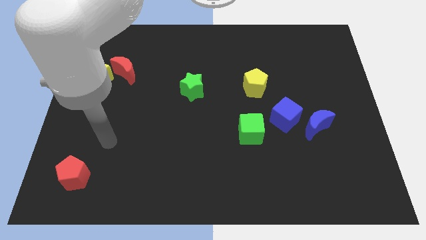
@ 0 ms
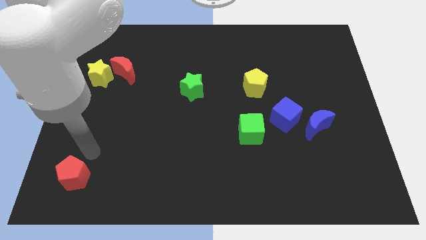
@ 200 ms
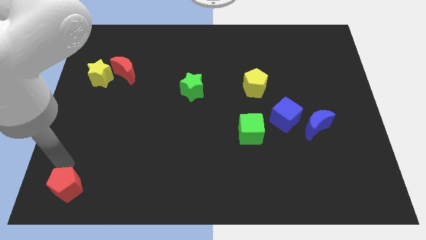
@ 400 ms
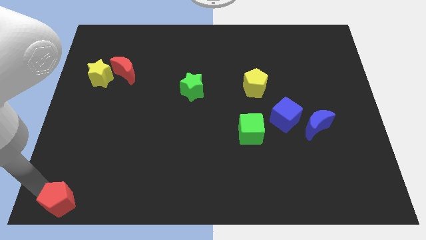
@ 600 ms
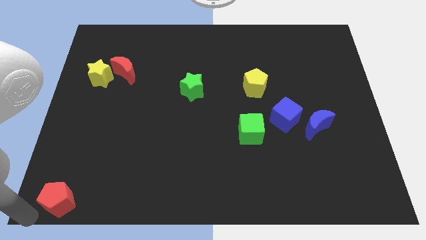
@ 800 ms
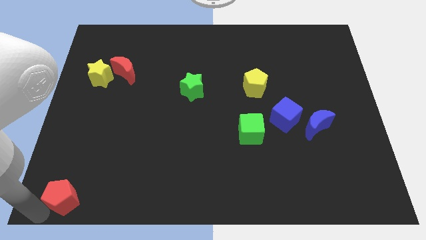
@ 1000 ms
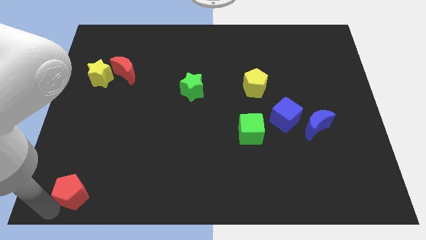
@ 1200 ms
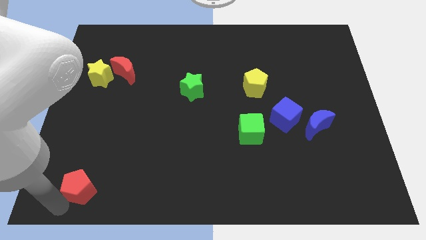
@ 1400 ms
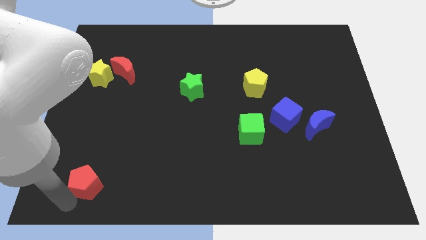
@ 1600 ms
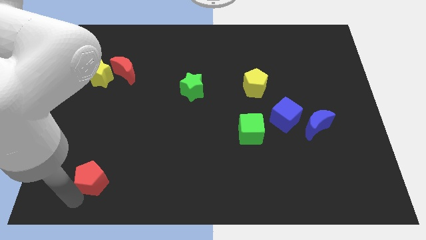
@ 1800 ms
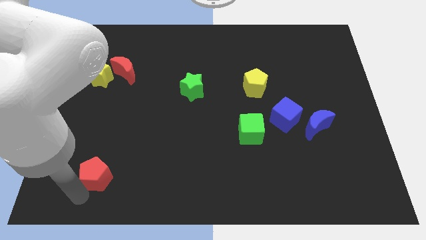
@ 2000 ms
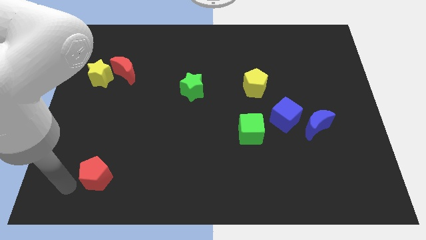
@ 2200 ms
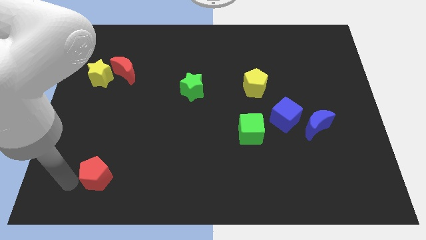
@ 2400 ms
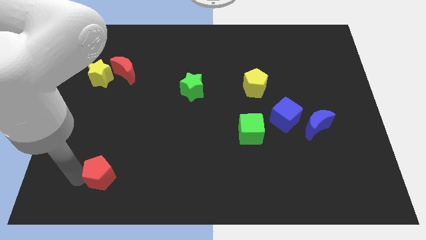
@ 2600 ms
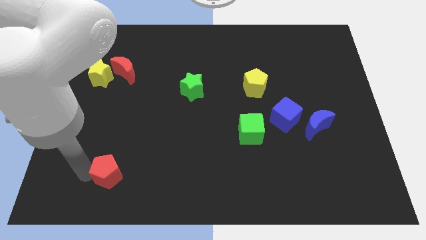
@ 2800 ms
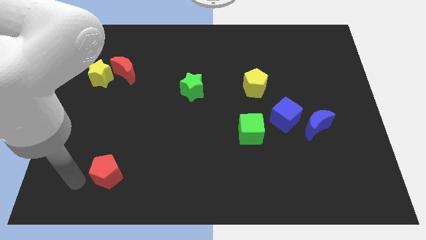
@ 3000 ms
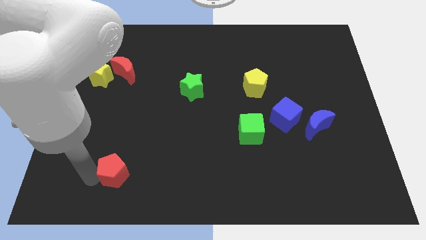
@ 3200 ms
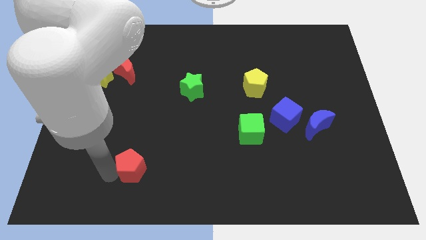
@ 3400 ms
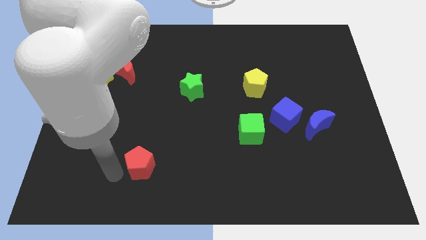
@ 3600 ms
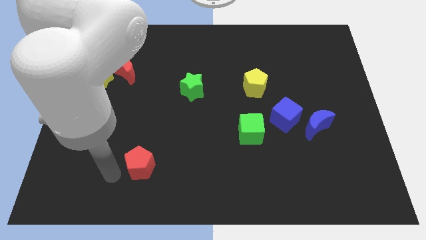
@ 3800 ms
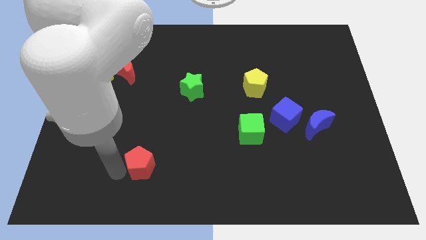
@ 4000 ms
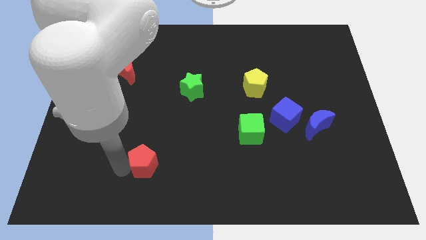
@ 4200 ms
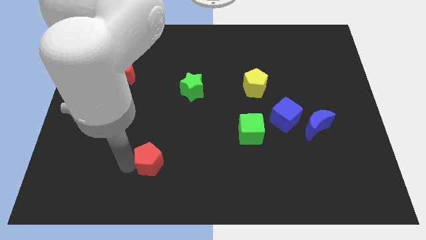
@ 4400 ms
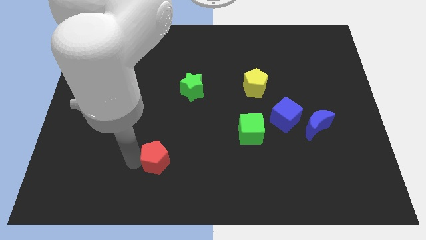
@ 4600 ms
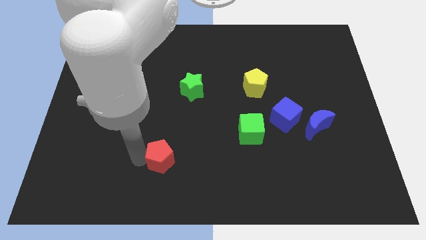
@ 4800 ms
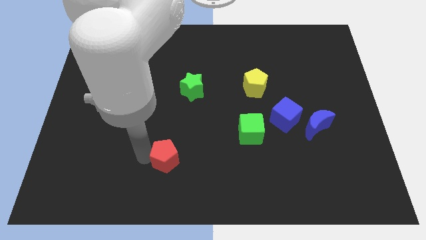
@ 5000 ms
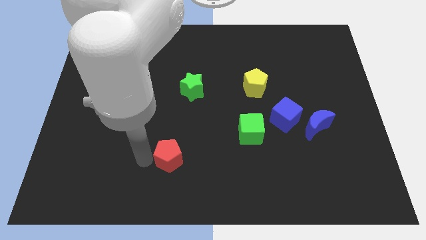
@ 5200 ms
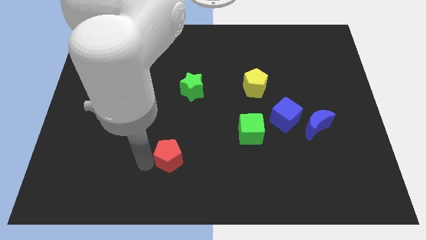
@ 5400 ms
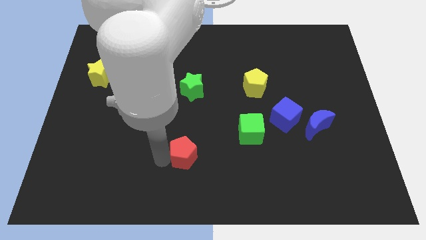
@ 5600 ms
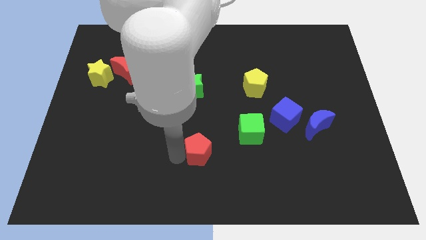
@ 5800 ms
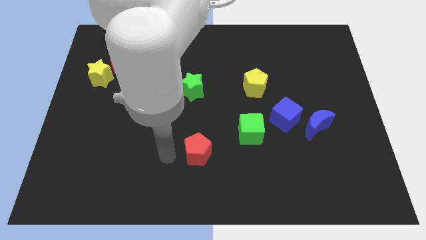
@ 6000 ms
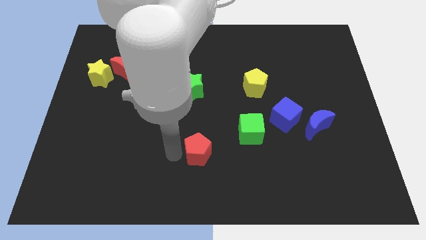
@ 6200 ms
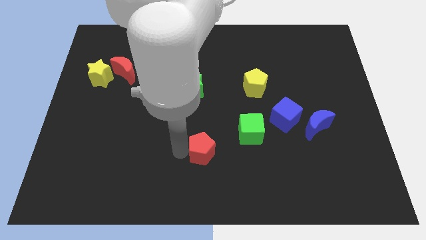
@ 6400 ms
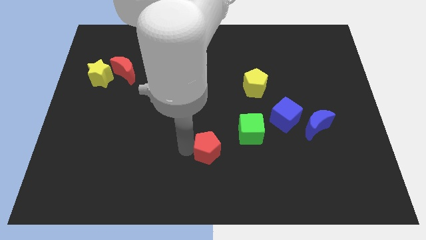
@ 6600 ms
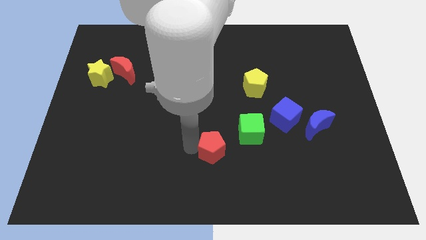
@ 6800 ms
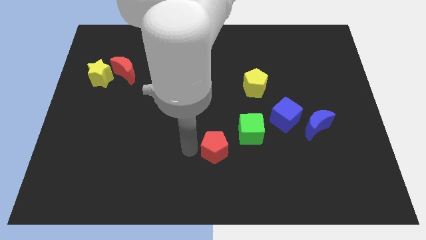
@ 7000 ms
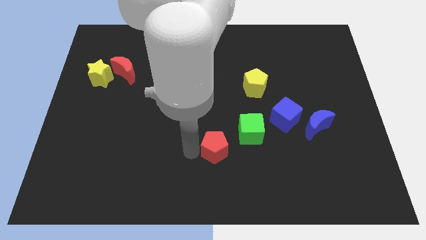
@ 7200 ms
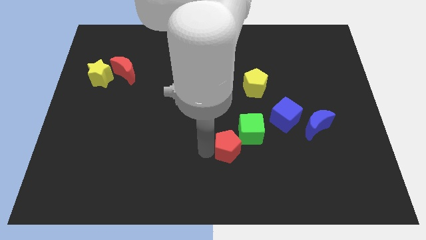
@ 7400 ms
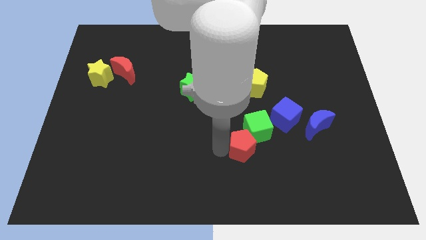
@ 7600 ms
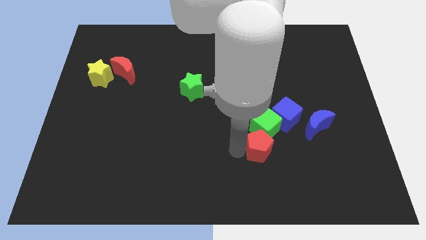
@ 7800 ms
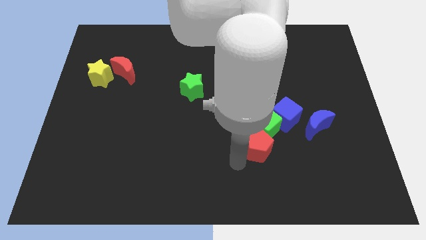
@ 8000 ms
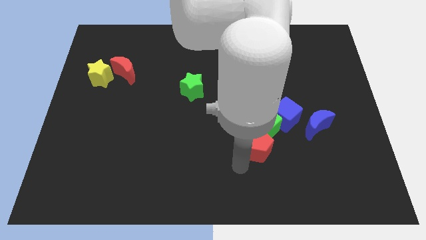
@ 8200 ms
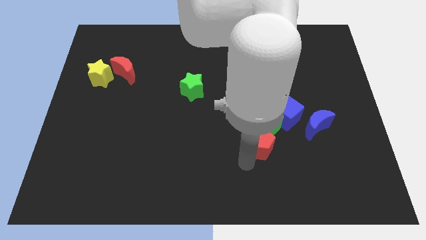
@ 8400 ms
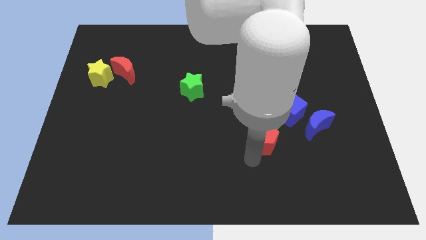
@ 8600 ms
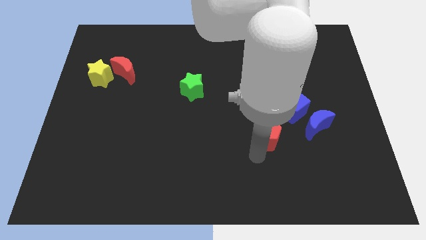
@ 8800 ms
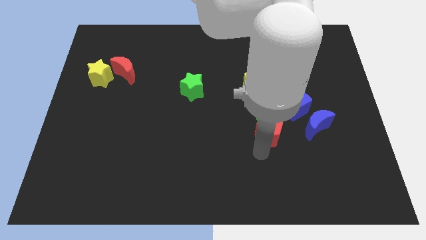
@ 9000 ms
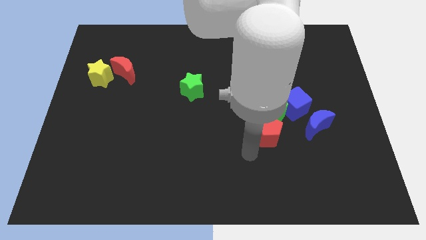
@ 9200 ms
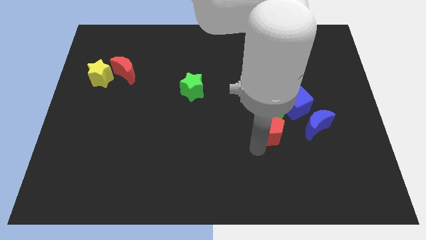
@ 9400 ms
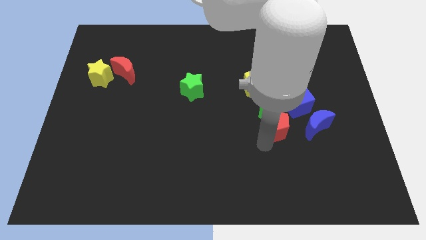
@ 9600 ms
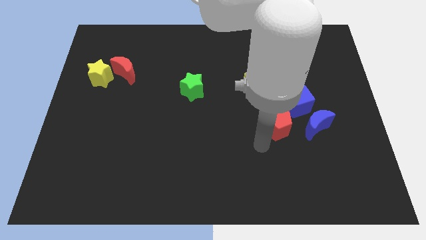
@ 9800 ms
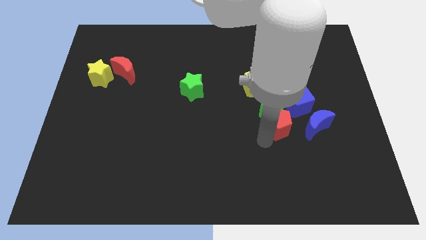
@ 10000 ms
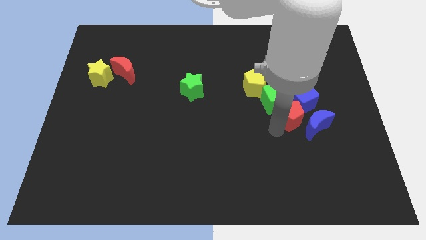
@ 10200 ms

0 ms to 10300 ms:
push the red pentagon towards the blue cube

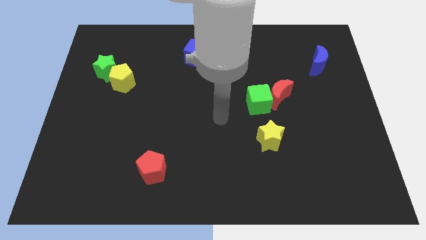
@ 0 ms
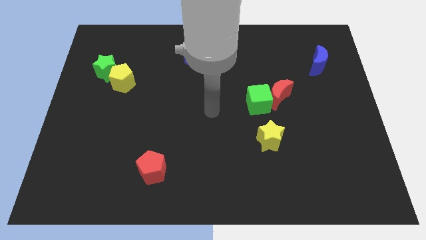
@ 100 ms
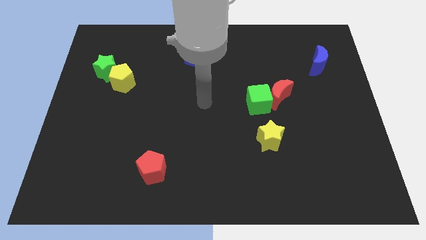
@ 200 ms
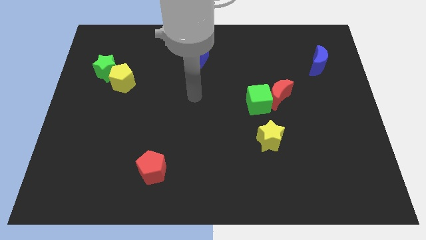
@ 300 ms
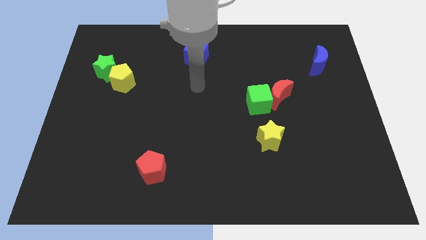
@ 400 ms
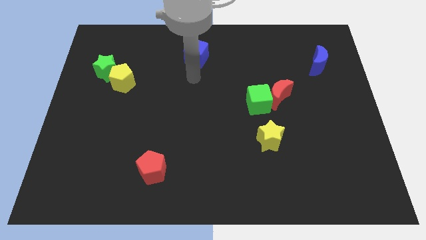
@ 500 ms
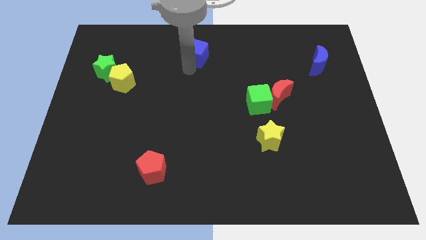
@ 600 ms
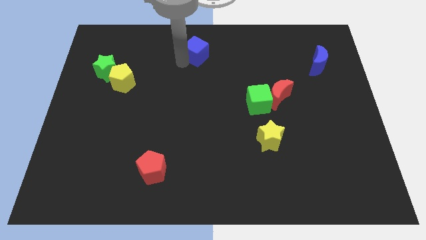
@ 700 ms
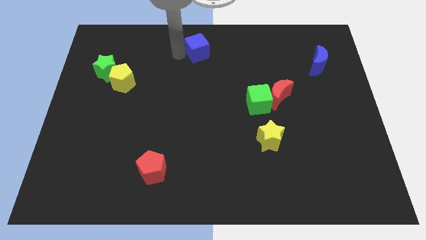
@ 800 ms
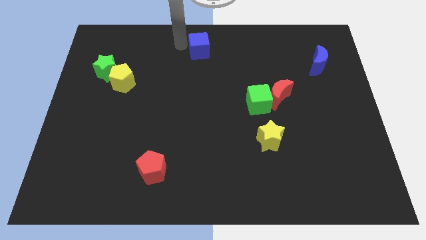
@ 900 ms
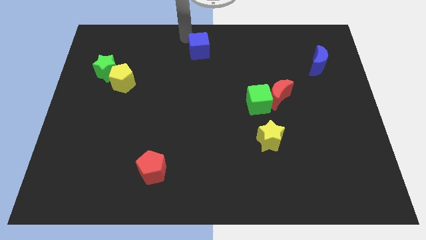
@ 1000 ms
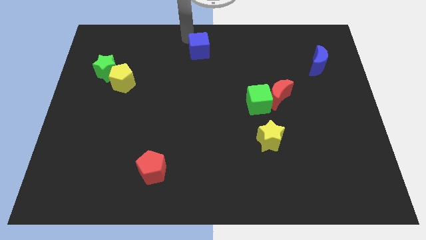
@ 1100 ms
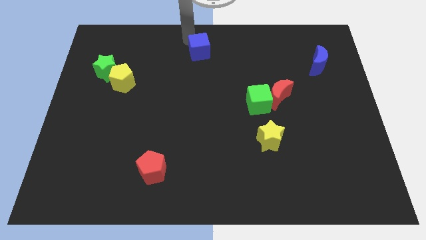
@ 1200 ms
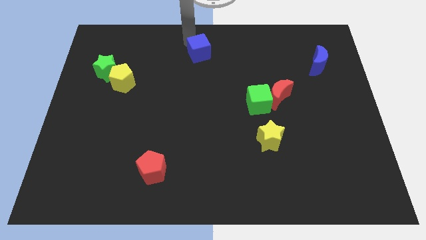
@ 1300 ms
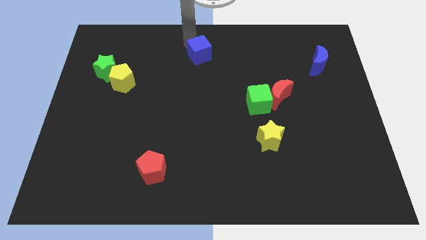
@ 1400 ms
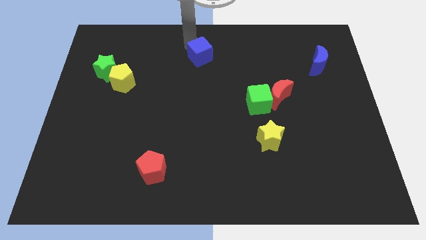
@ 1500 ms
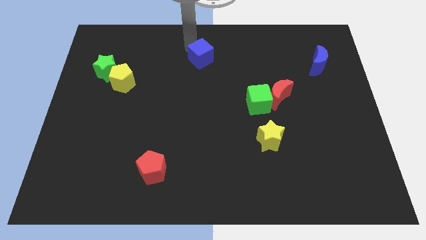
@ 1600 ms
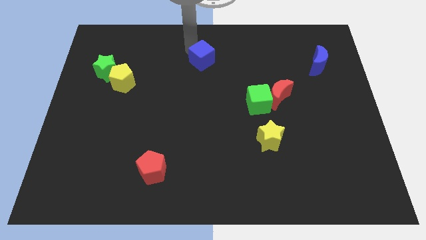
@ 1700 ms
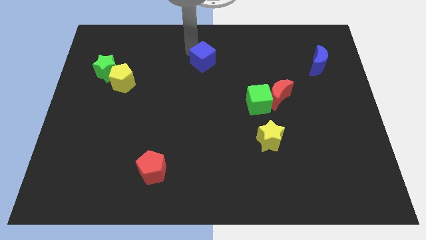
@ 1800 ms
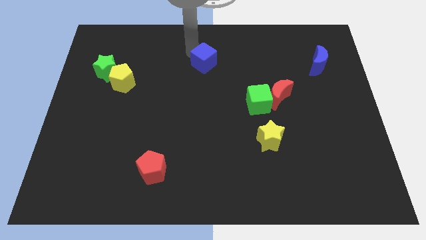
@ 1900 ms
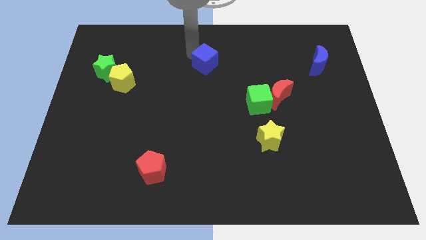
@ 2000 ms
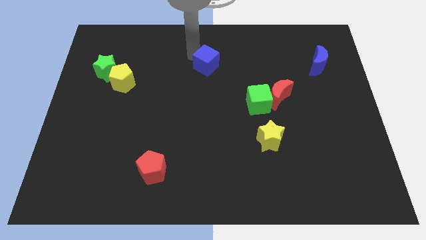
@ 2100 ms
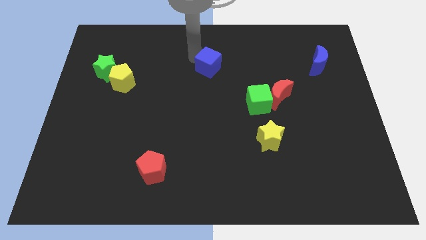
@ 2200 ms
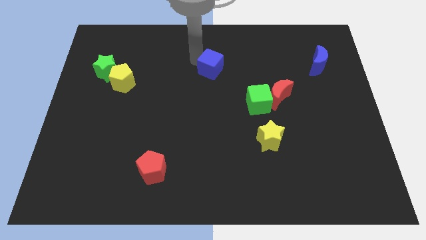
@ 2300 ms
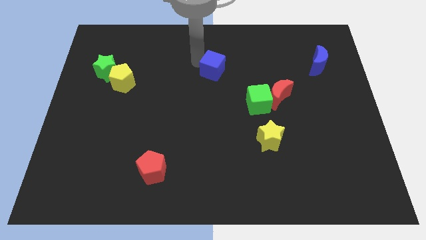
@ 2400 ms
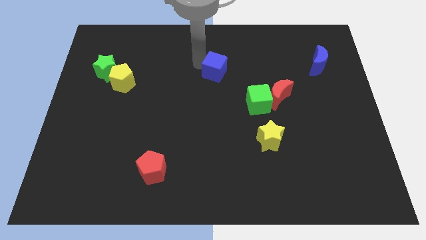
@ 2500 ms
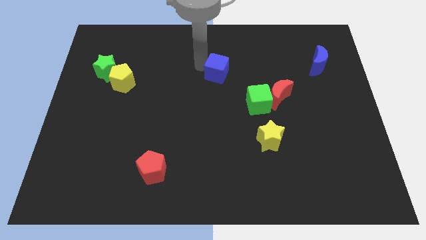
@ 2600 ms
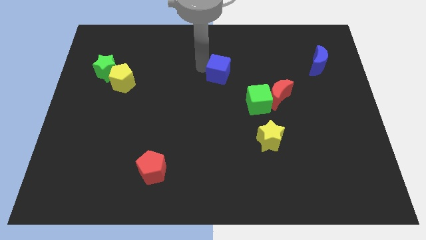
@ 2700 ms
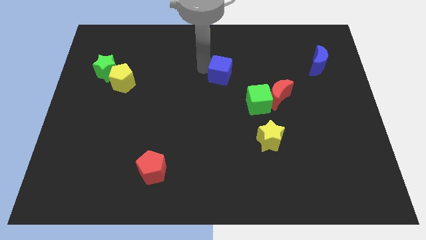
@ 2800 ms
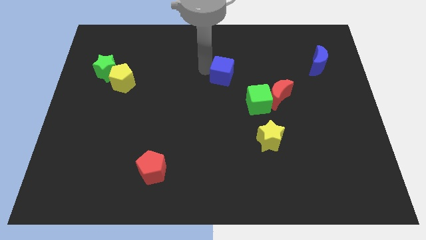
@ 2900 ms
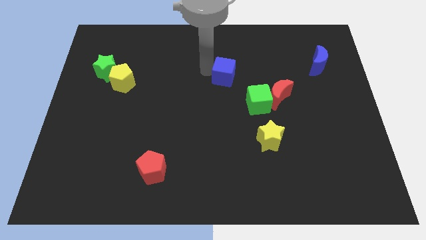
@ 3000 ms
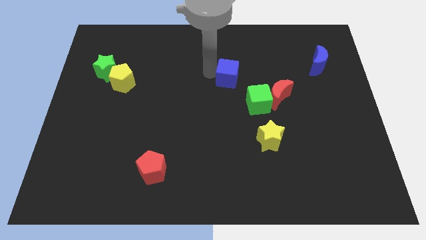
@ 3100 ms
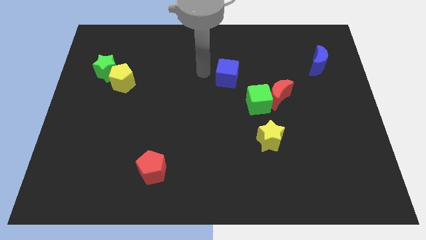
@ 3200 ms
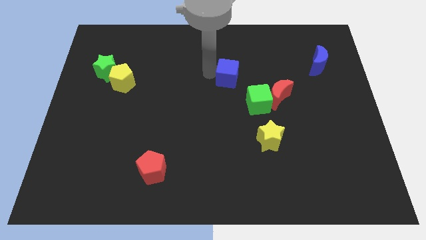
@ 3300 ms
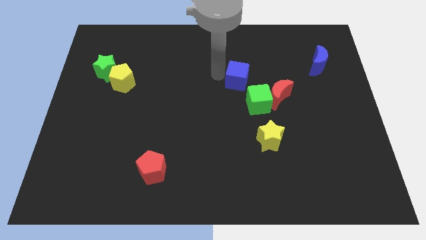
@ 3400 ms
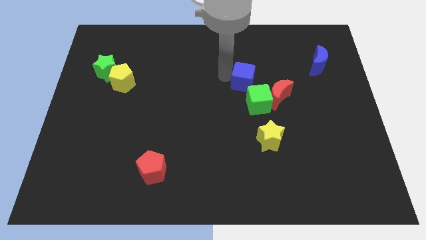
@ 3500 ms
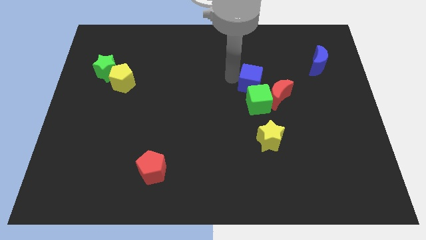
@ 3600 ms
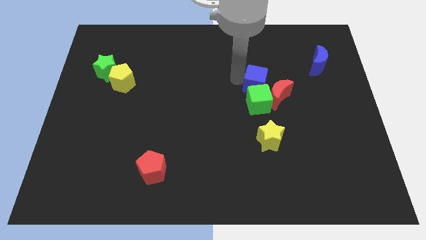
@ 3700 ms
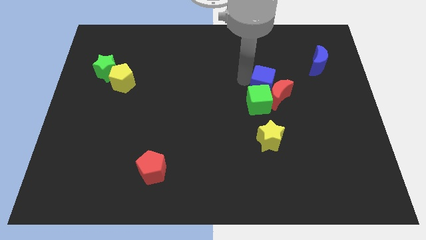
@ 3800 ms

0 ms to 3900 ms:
push the blue cube to the red moon
